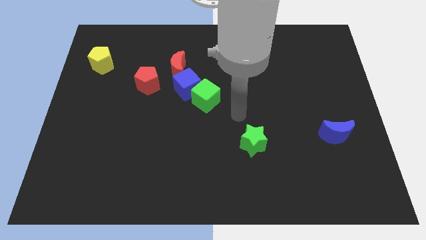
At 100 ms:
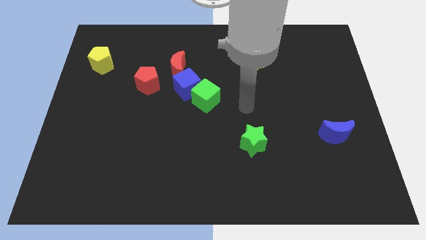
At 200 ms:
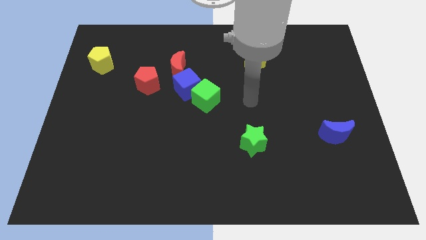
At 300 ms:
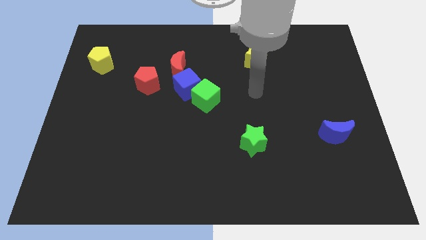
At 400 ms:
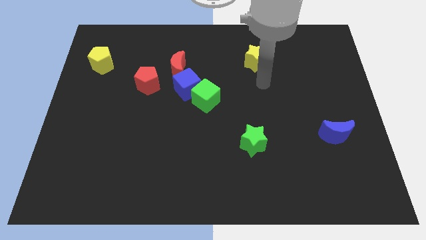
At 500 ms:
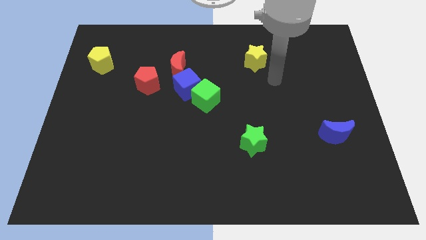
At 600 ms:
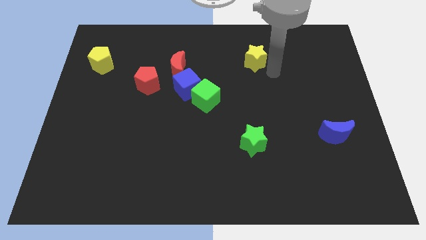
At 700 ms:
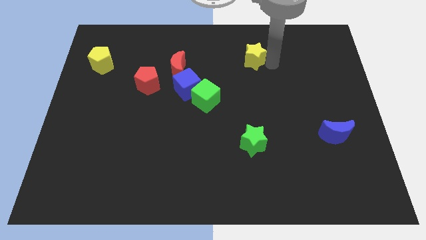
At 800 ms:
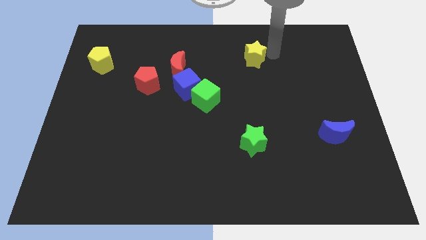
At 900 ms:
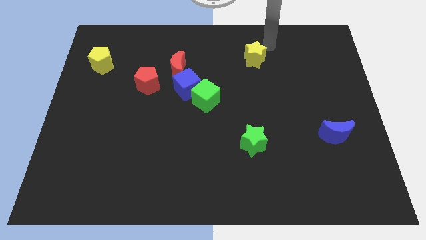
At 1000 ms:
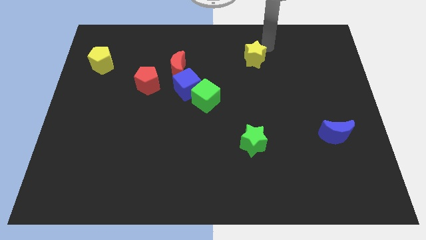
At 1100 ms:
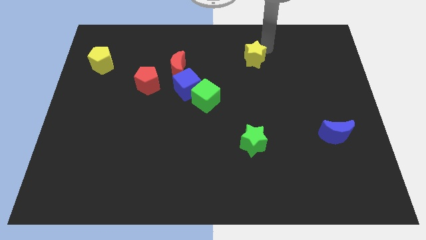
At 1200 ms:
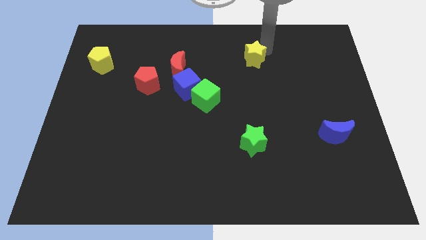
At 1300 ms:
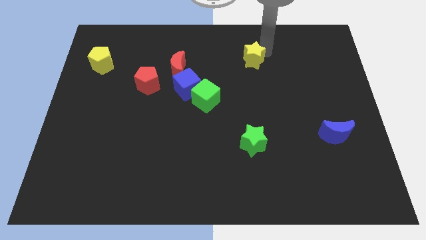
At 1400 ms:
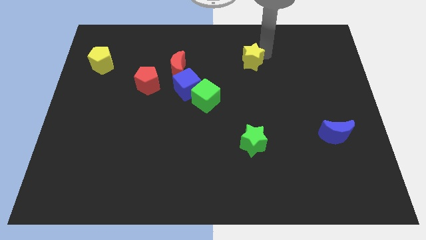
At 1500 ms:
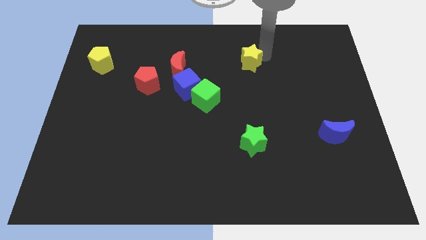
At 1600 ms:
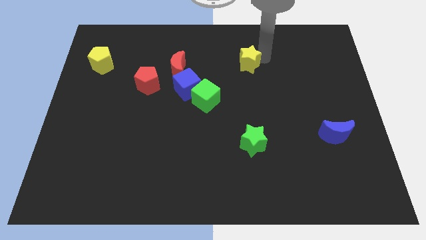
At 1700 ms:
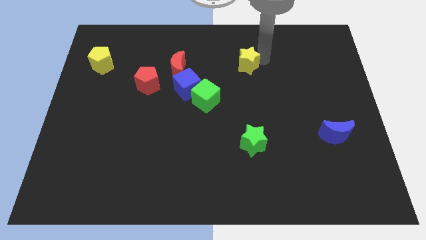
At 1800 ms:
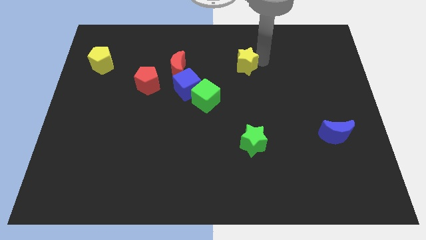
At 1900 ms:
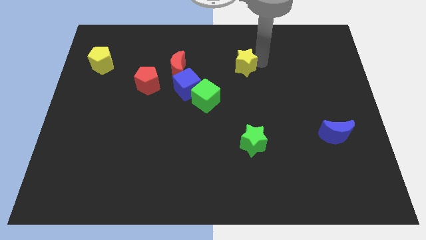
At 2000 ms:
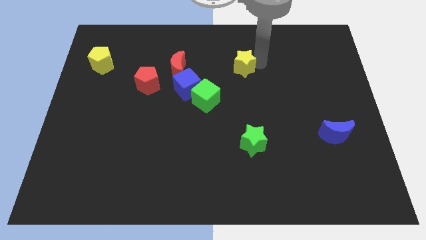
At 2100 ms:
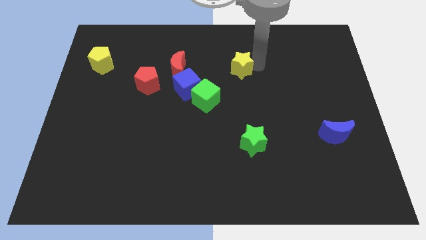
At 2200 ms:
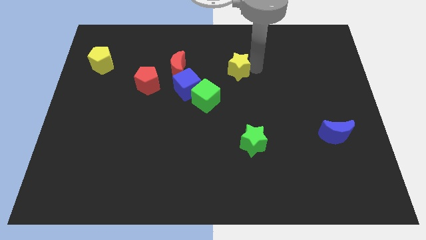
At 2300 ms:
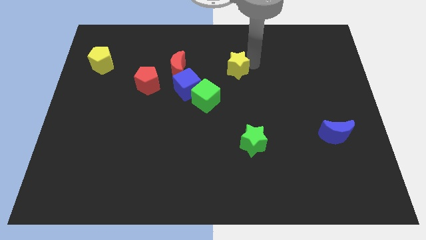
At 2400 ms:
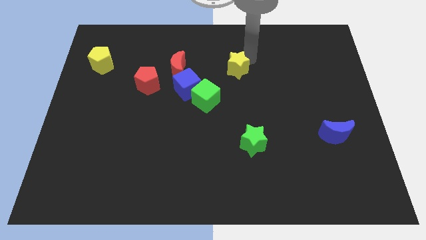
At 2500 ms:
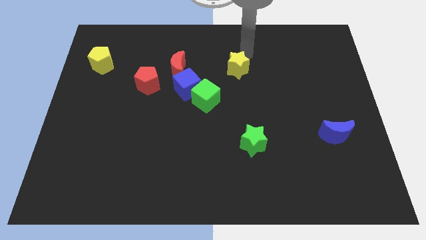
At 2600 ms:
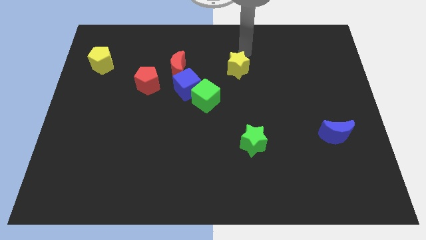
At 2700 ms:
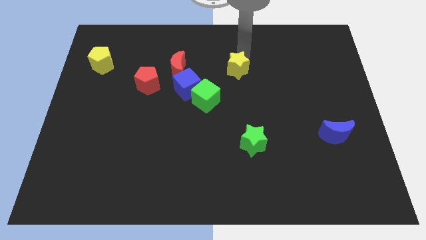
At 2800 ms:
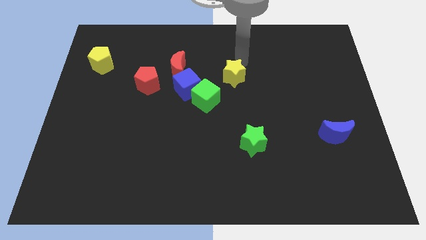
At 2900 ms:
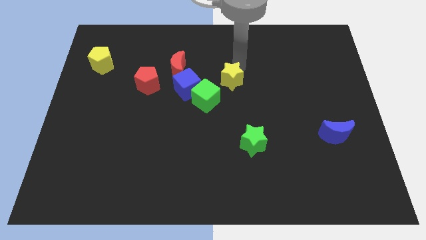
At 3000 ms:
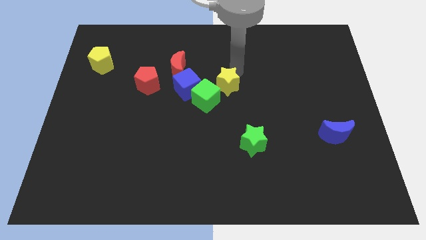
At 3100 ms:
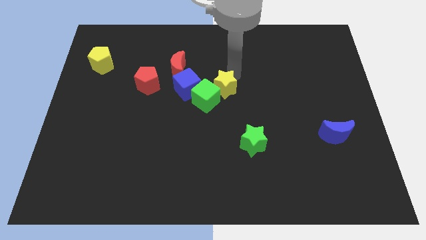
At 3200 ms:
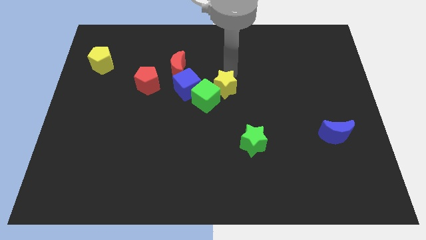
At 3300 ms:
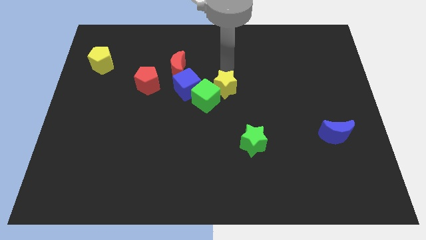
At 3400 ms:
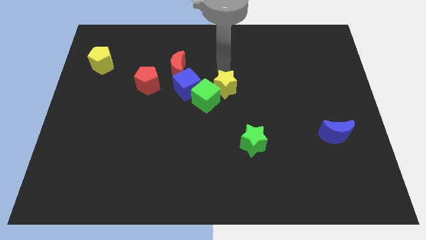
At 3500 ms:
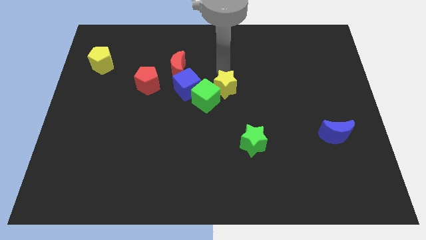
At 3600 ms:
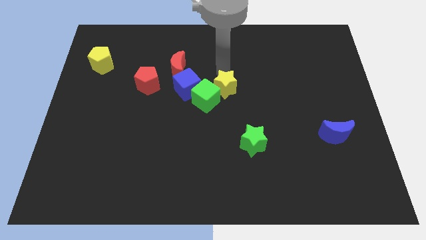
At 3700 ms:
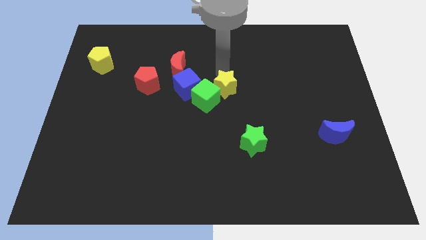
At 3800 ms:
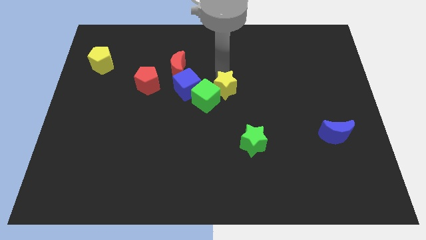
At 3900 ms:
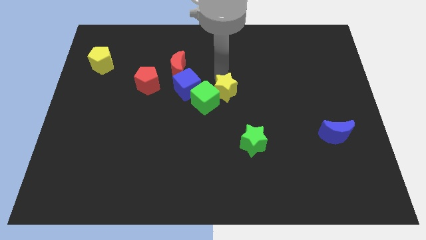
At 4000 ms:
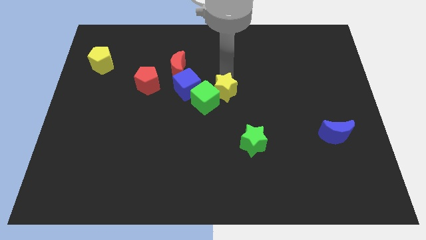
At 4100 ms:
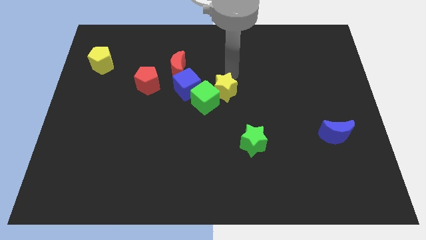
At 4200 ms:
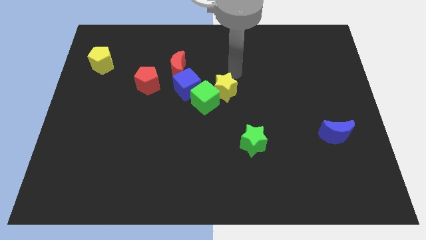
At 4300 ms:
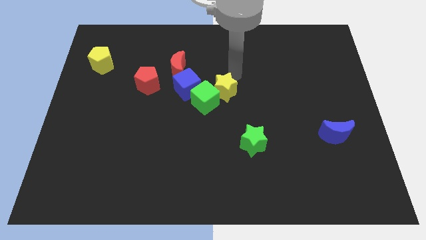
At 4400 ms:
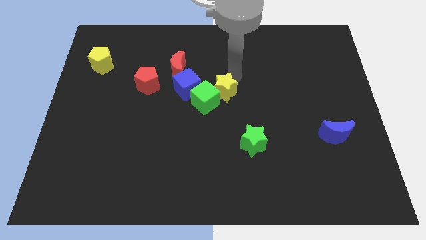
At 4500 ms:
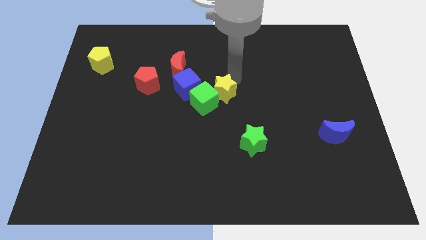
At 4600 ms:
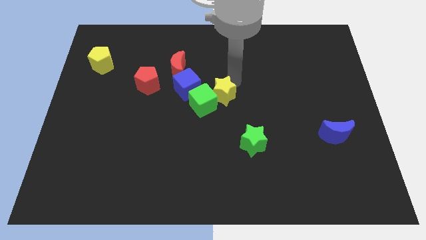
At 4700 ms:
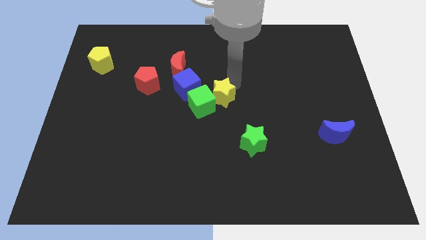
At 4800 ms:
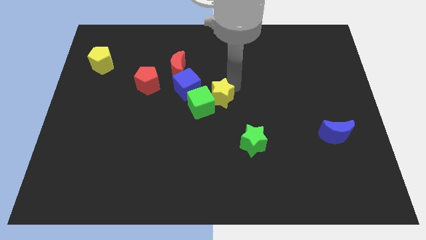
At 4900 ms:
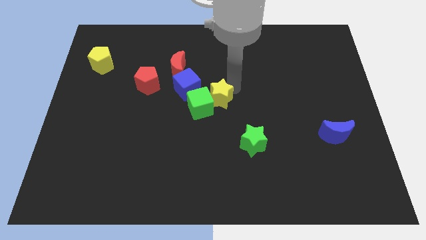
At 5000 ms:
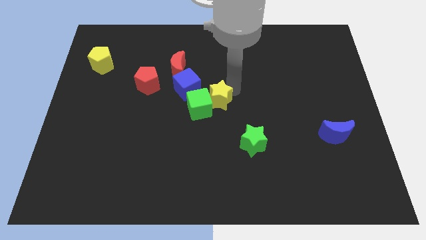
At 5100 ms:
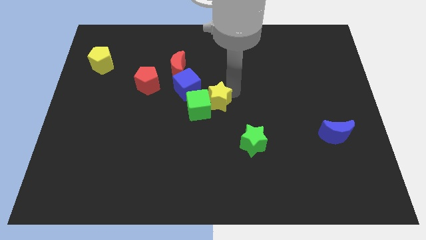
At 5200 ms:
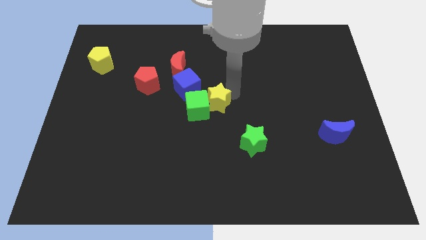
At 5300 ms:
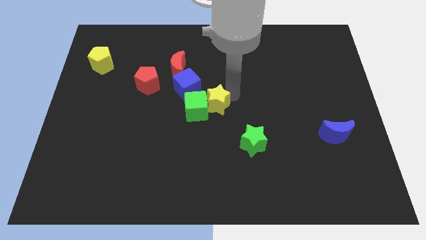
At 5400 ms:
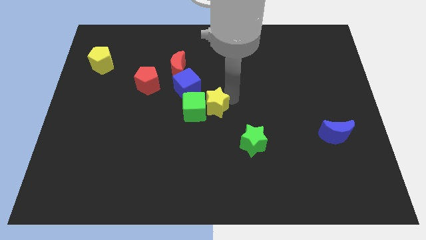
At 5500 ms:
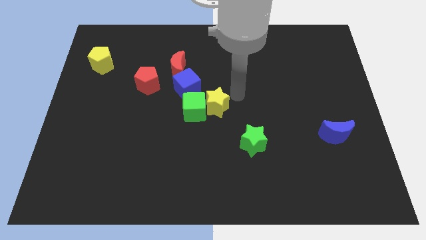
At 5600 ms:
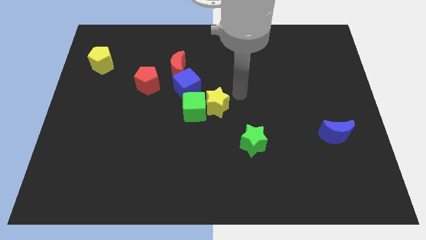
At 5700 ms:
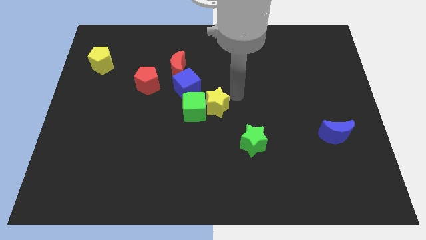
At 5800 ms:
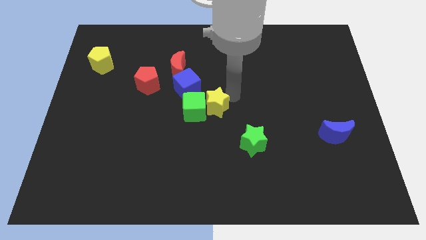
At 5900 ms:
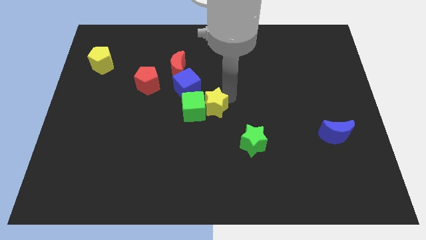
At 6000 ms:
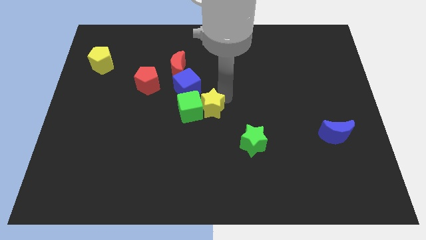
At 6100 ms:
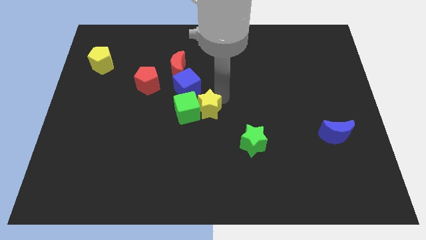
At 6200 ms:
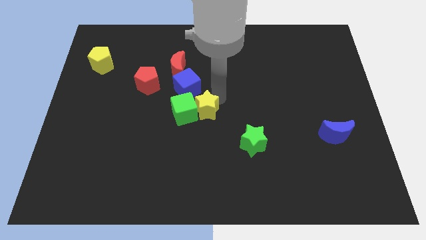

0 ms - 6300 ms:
slide the yellow star downwards and then to the left

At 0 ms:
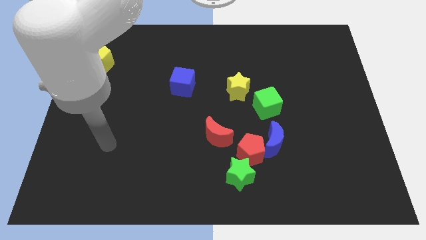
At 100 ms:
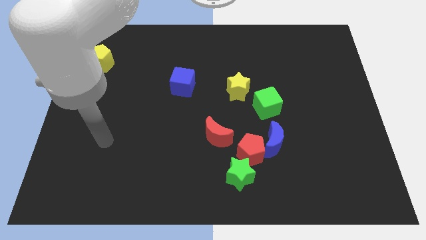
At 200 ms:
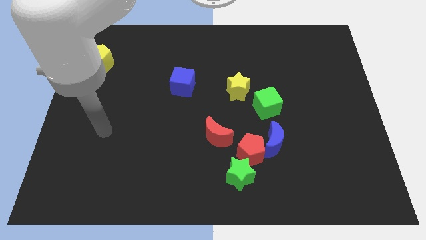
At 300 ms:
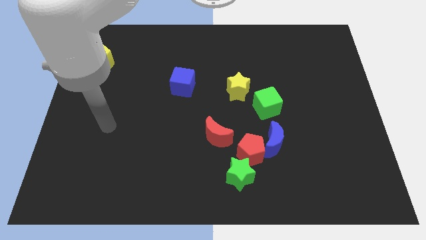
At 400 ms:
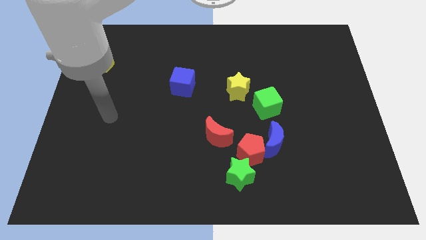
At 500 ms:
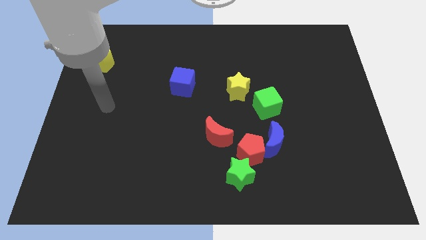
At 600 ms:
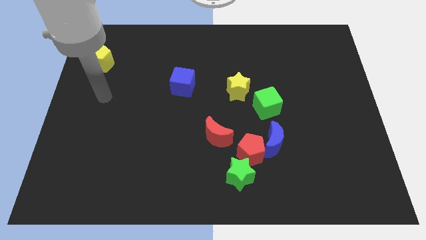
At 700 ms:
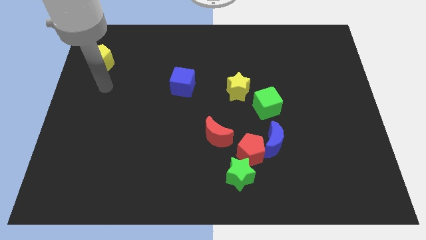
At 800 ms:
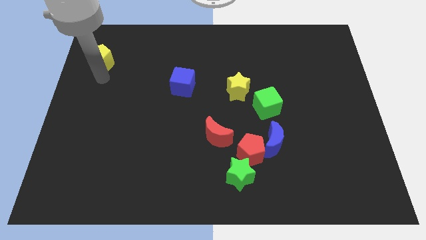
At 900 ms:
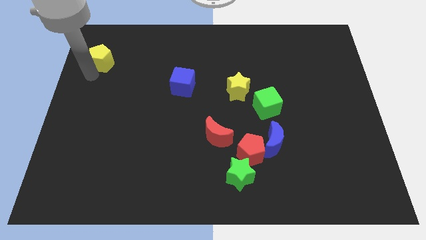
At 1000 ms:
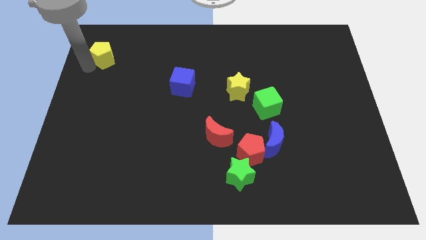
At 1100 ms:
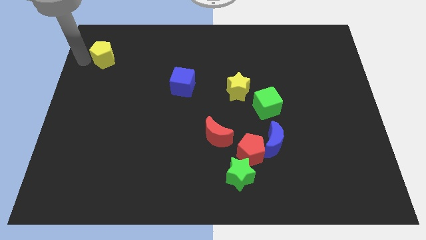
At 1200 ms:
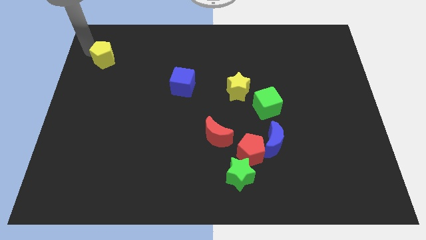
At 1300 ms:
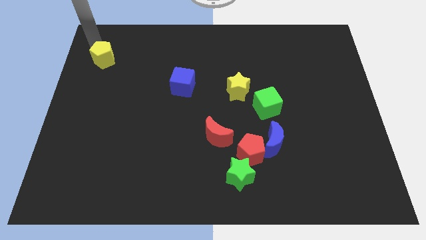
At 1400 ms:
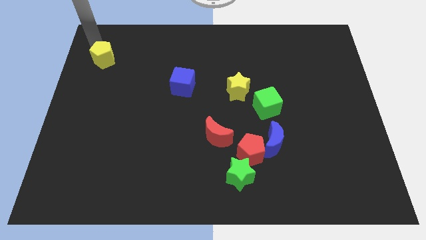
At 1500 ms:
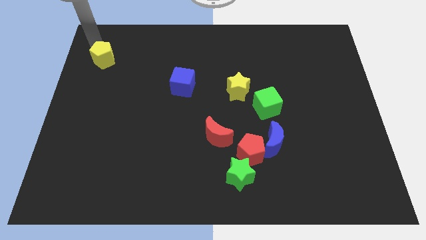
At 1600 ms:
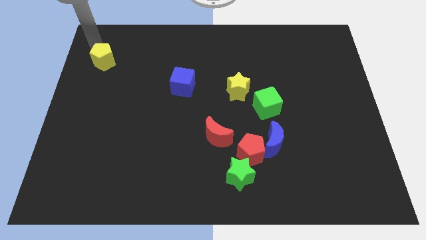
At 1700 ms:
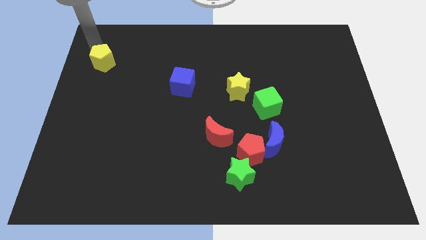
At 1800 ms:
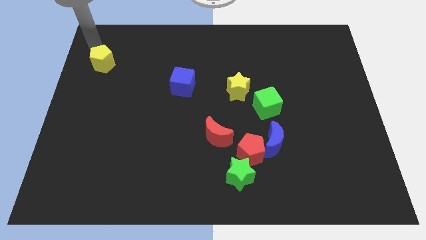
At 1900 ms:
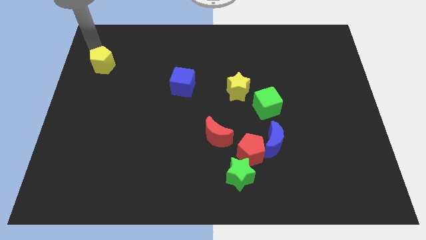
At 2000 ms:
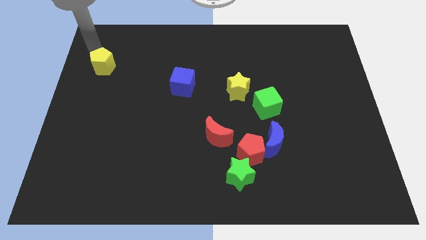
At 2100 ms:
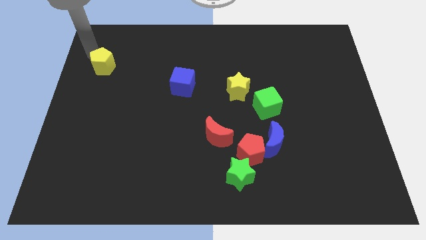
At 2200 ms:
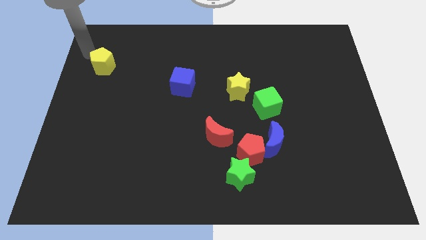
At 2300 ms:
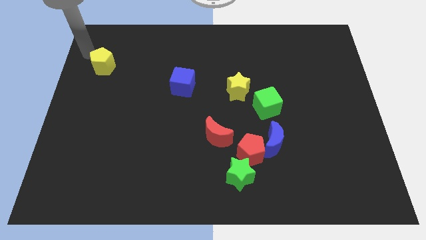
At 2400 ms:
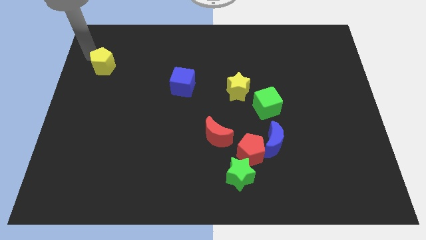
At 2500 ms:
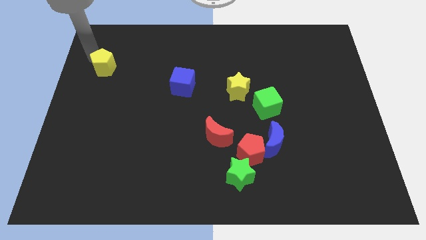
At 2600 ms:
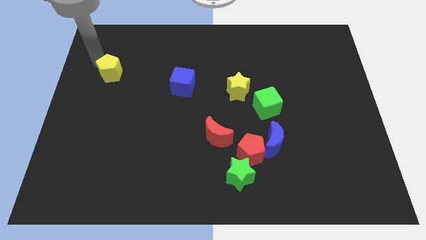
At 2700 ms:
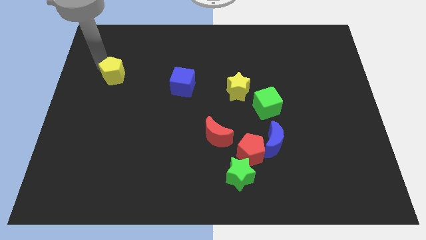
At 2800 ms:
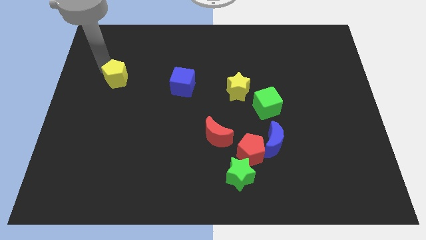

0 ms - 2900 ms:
slightly push the yellow pentagon downwards and to the right diagonally
